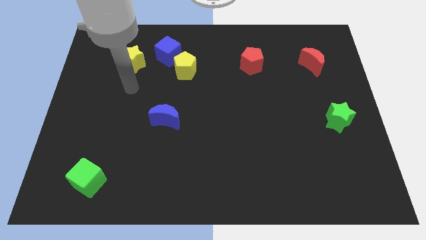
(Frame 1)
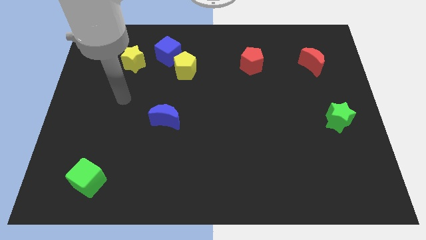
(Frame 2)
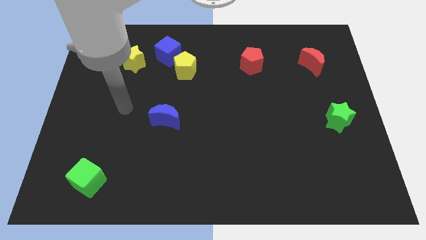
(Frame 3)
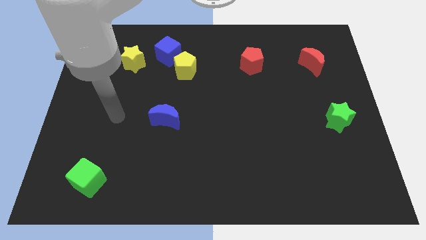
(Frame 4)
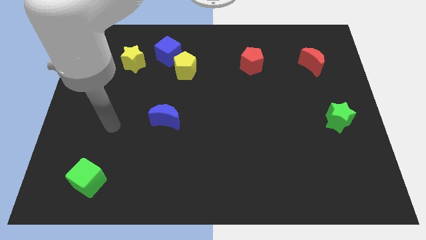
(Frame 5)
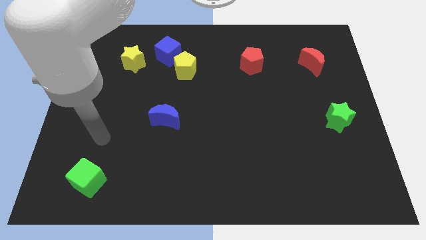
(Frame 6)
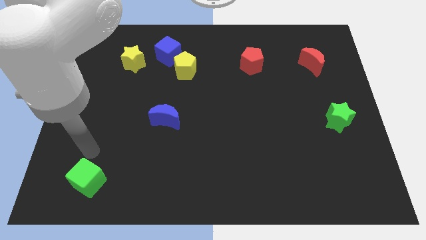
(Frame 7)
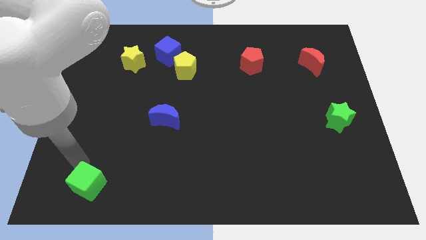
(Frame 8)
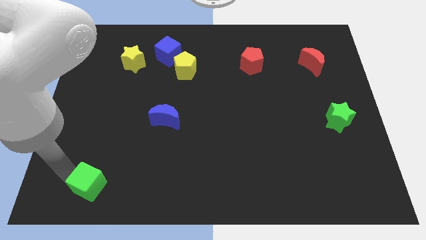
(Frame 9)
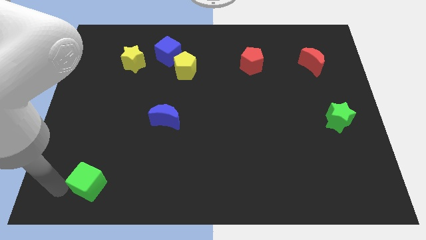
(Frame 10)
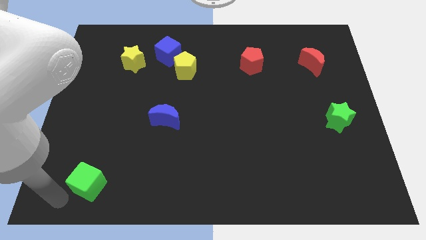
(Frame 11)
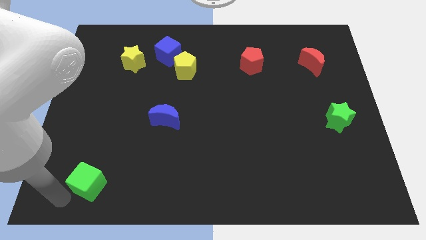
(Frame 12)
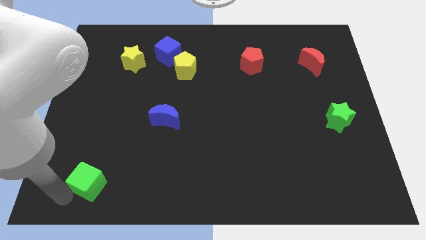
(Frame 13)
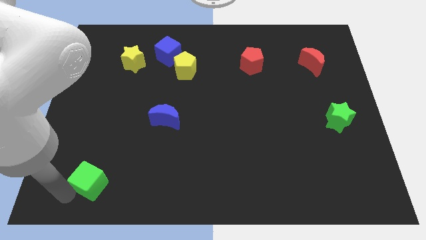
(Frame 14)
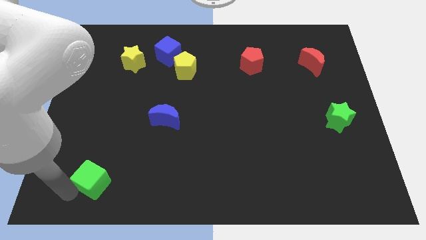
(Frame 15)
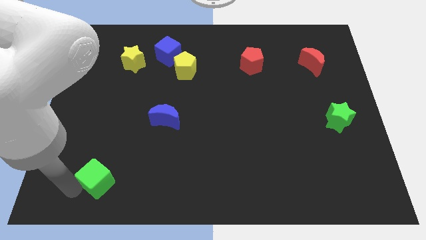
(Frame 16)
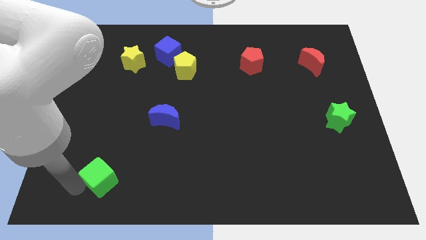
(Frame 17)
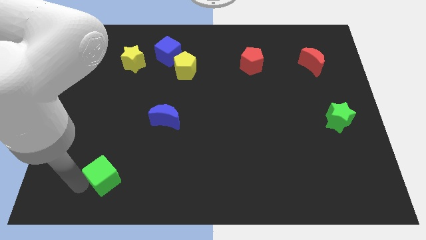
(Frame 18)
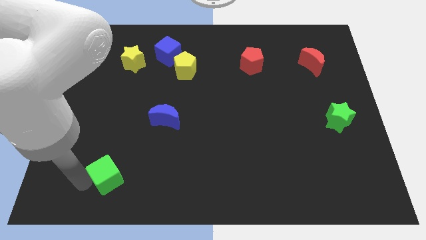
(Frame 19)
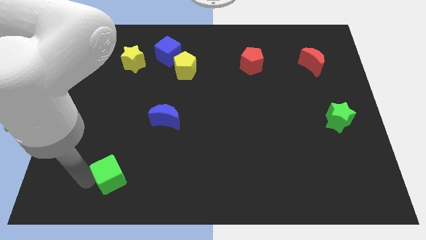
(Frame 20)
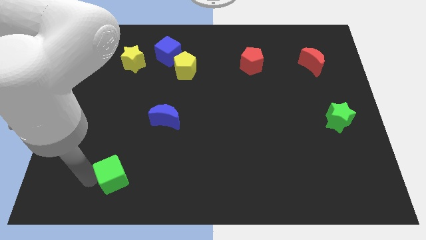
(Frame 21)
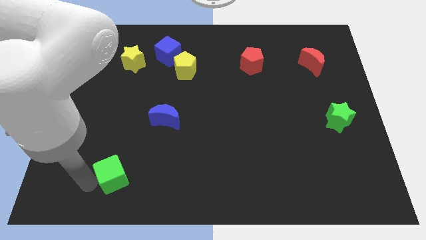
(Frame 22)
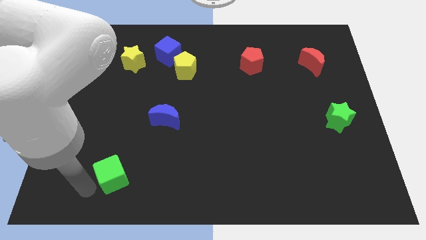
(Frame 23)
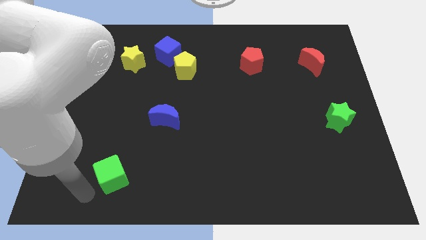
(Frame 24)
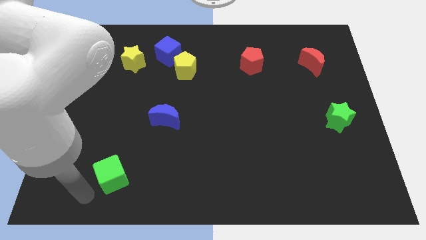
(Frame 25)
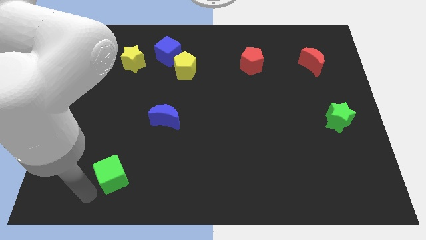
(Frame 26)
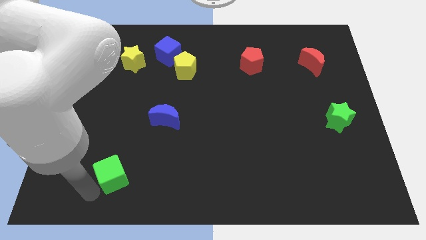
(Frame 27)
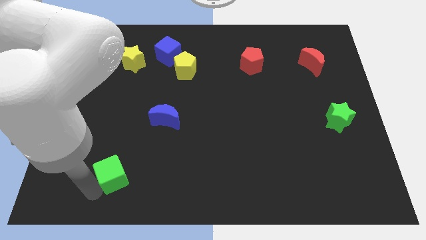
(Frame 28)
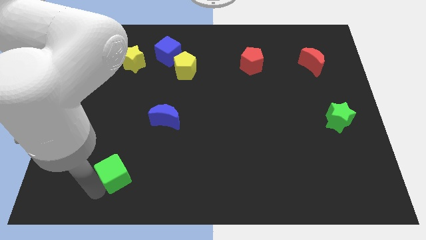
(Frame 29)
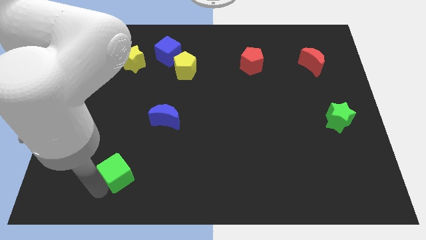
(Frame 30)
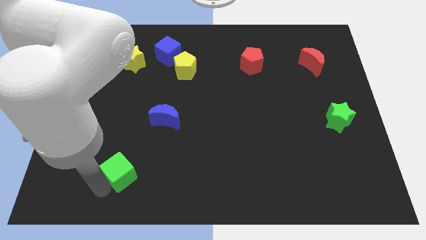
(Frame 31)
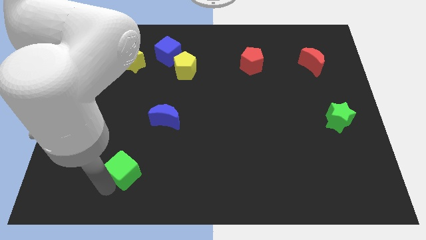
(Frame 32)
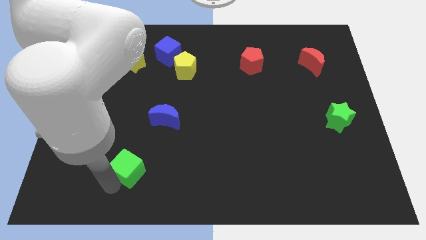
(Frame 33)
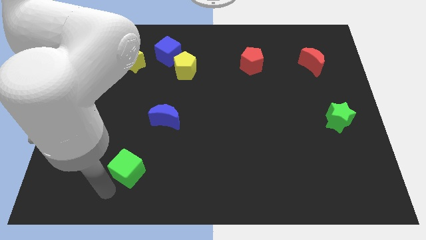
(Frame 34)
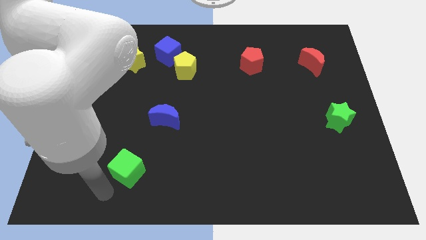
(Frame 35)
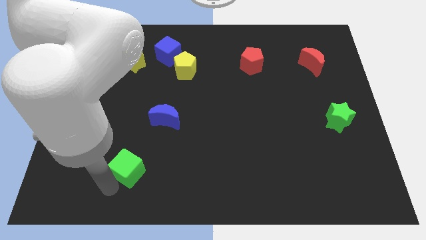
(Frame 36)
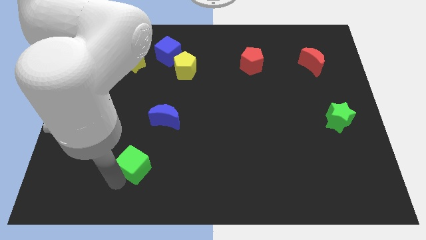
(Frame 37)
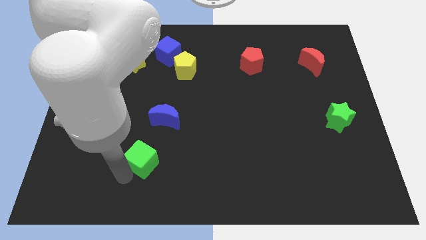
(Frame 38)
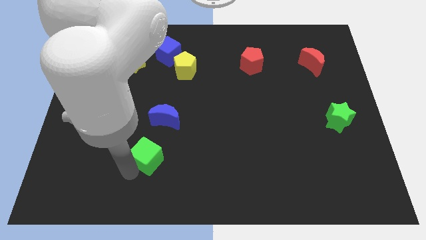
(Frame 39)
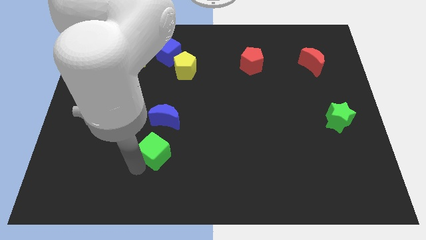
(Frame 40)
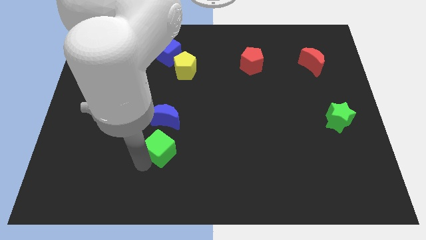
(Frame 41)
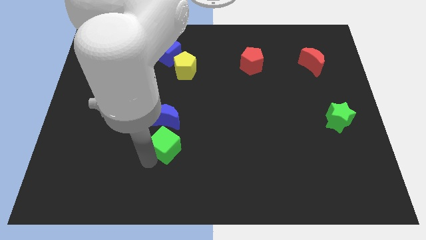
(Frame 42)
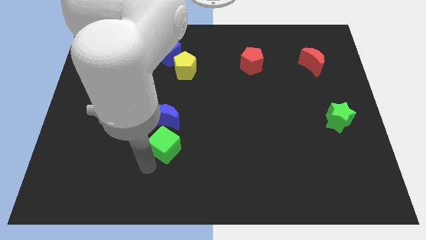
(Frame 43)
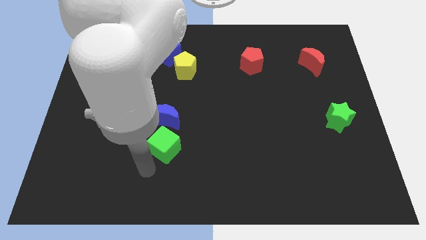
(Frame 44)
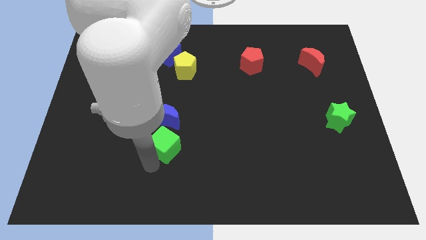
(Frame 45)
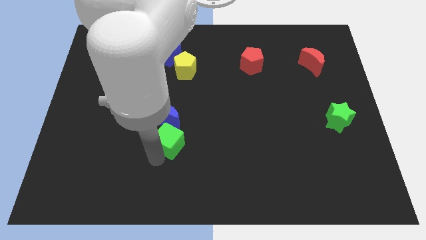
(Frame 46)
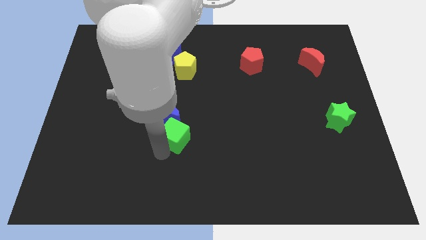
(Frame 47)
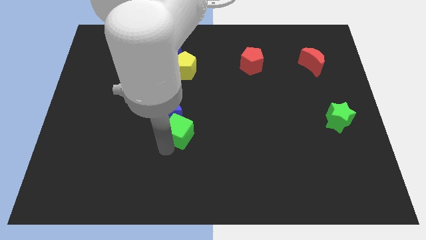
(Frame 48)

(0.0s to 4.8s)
push the green cube upwards and right diagonally

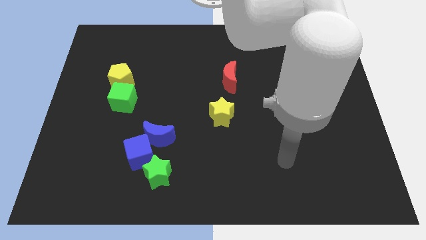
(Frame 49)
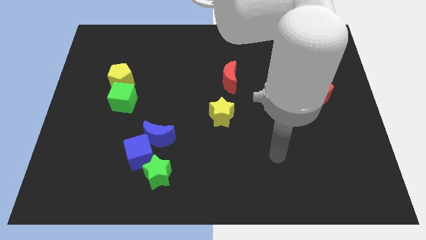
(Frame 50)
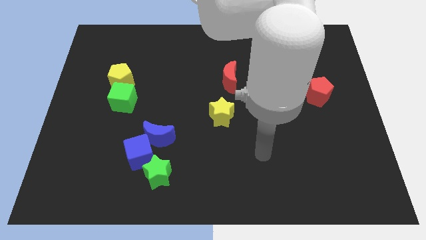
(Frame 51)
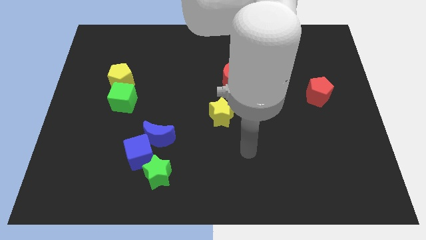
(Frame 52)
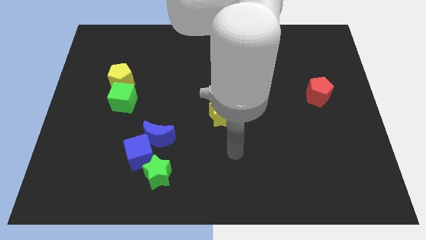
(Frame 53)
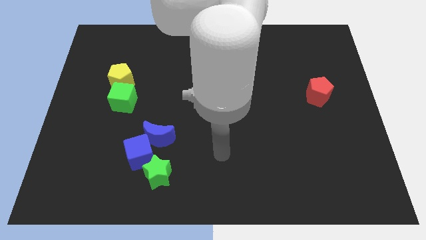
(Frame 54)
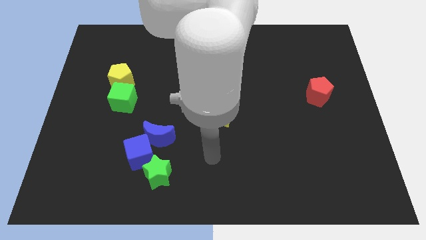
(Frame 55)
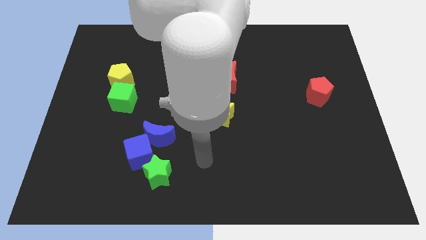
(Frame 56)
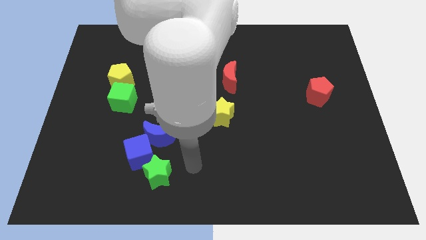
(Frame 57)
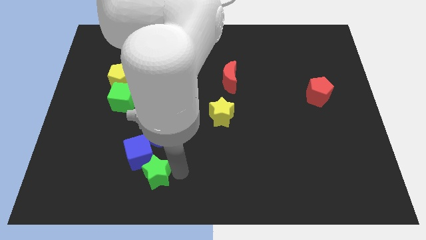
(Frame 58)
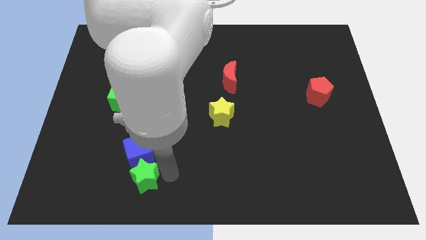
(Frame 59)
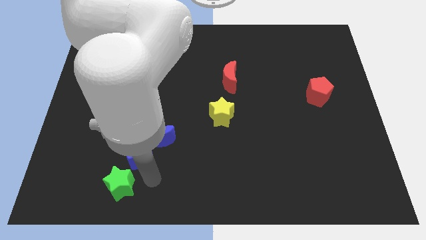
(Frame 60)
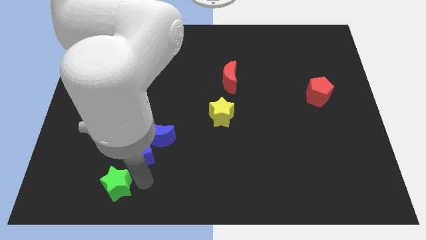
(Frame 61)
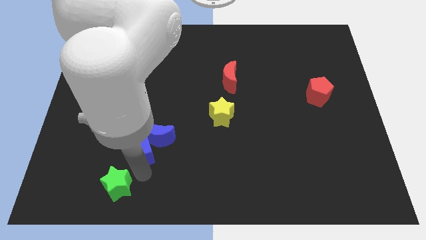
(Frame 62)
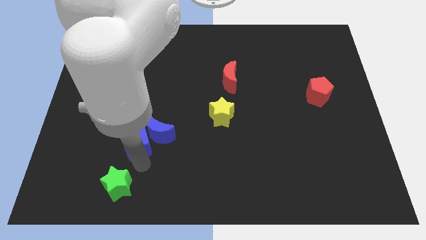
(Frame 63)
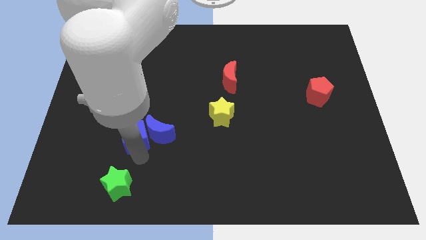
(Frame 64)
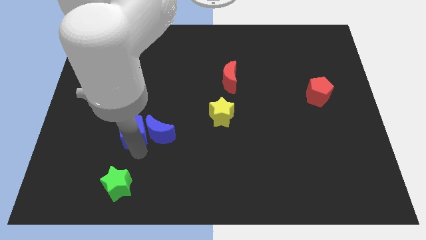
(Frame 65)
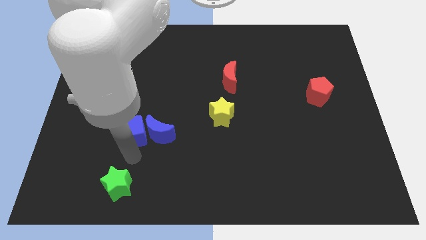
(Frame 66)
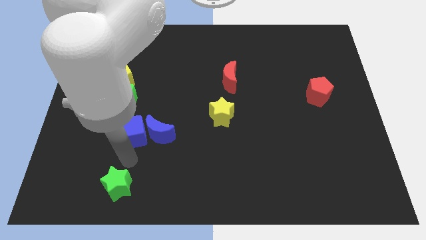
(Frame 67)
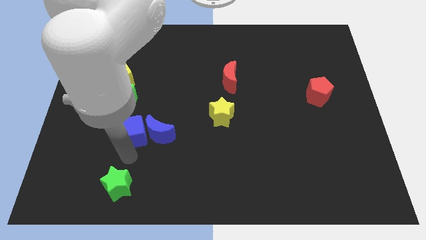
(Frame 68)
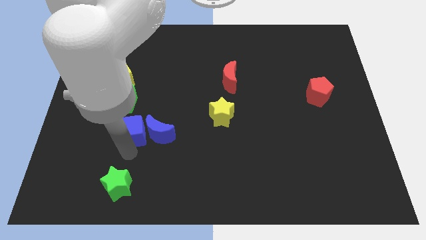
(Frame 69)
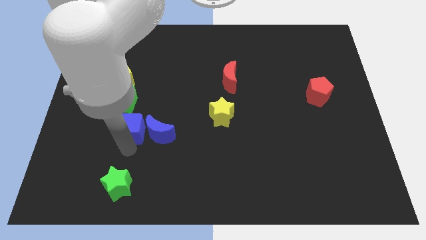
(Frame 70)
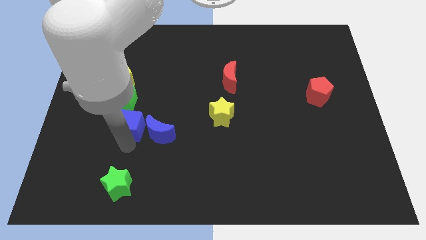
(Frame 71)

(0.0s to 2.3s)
move the blue cube upwards somewhat

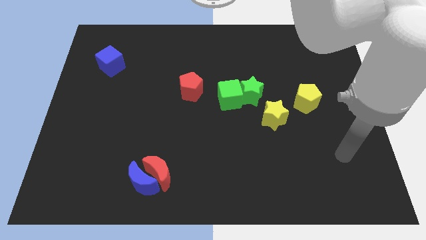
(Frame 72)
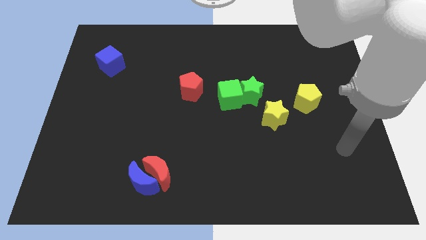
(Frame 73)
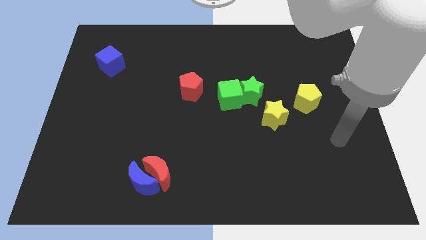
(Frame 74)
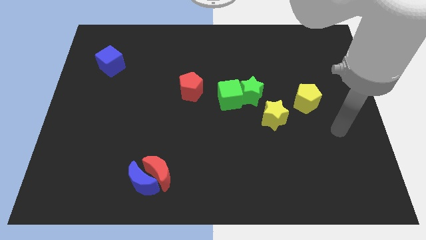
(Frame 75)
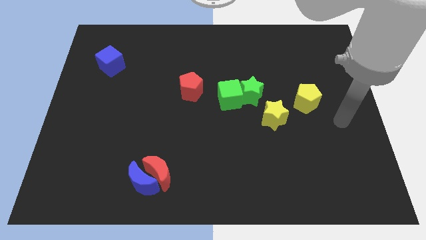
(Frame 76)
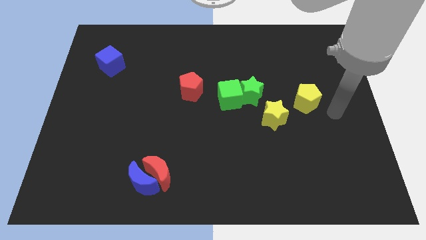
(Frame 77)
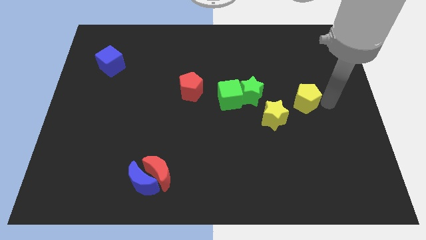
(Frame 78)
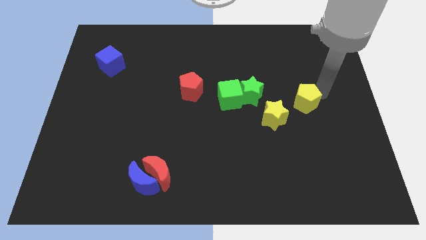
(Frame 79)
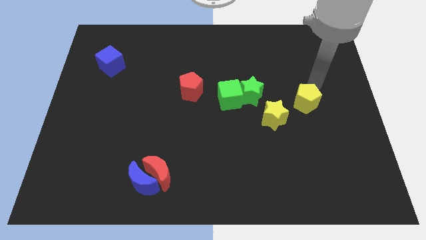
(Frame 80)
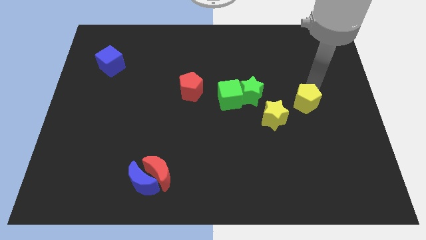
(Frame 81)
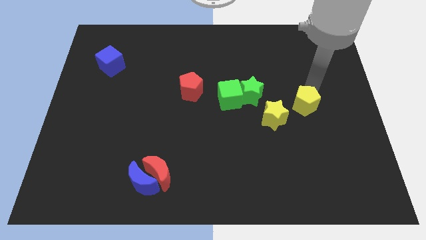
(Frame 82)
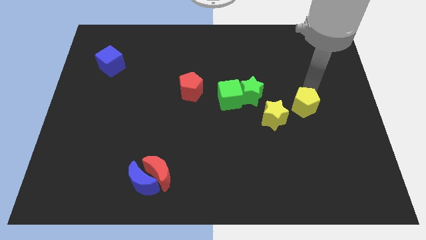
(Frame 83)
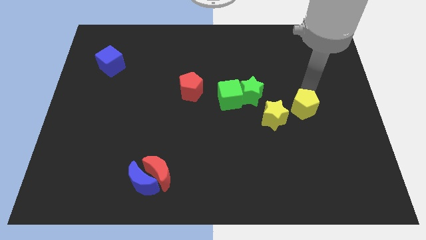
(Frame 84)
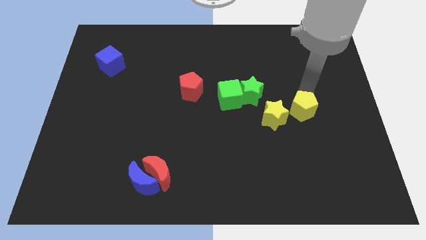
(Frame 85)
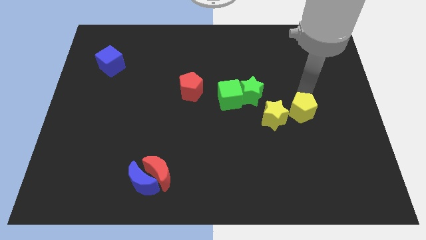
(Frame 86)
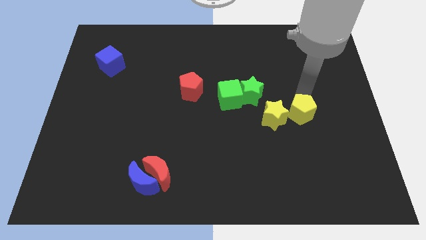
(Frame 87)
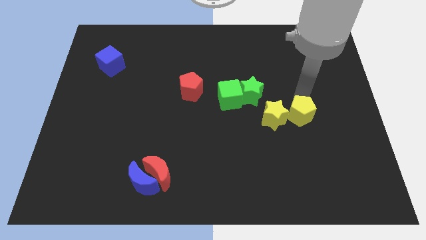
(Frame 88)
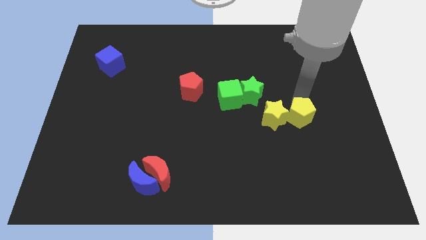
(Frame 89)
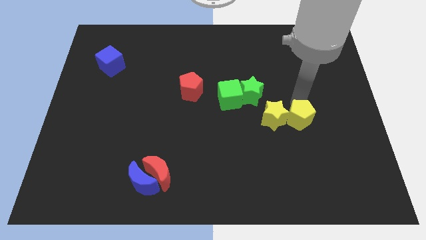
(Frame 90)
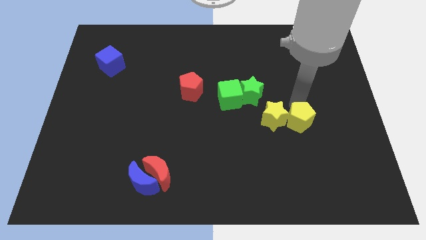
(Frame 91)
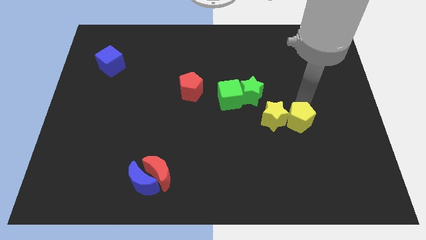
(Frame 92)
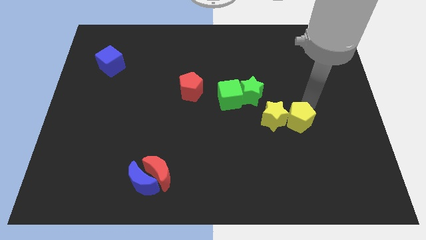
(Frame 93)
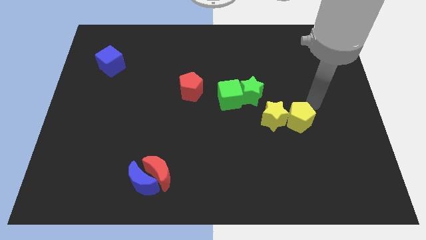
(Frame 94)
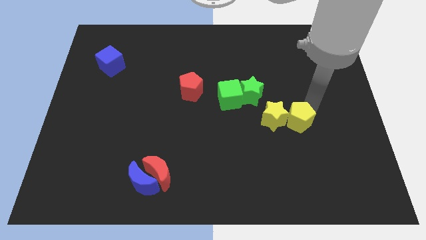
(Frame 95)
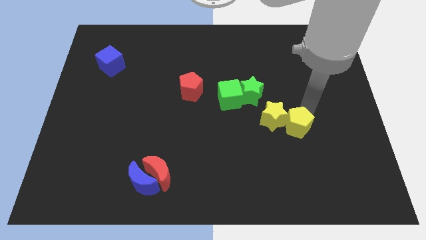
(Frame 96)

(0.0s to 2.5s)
slide the yellow pentagon somewhat diagonally downwards and to the left
